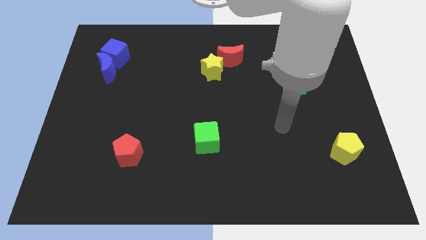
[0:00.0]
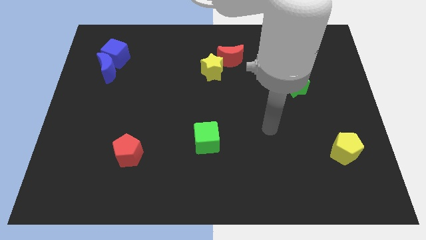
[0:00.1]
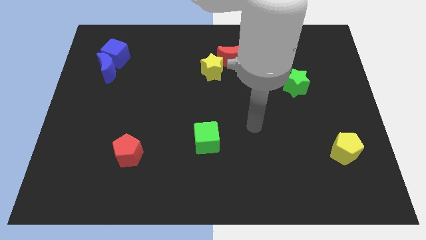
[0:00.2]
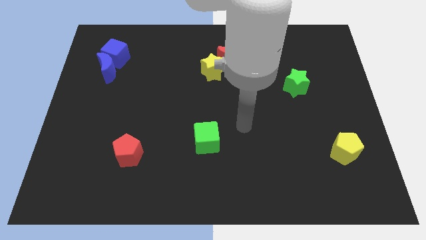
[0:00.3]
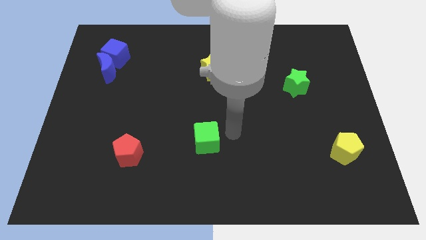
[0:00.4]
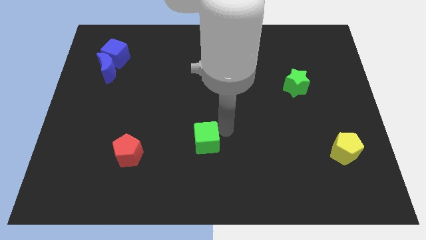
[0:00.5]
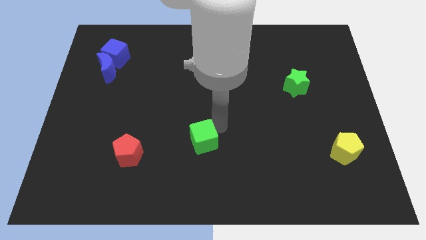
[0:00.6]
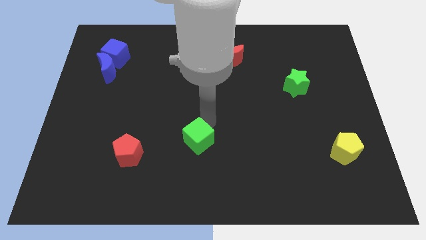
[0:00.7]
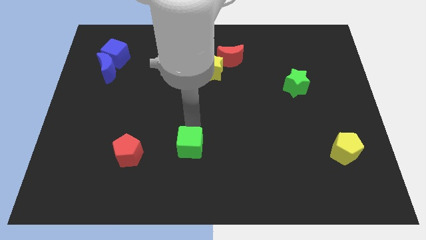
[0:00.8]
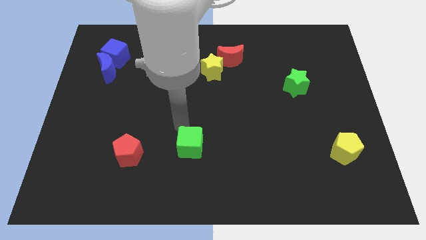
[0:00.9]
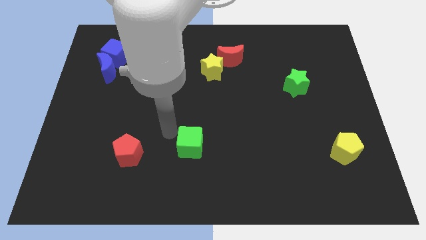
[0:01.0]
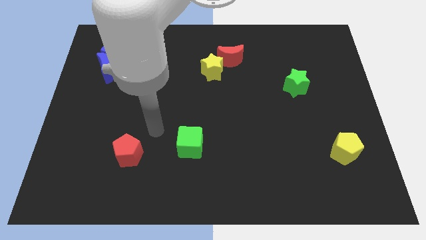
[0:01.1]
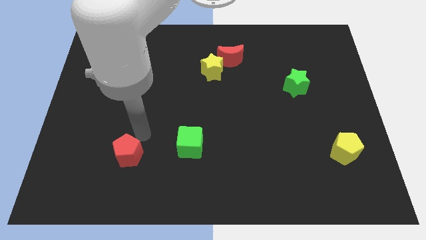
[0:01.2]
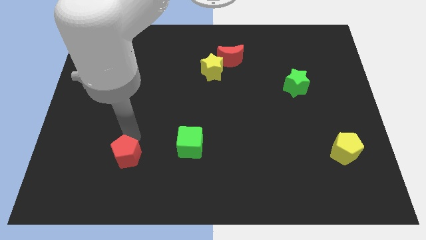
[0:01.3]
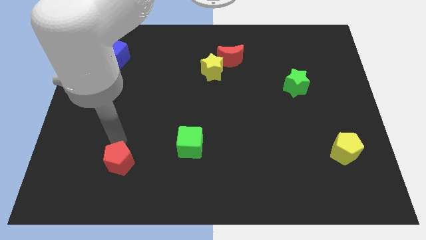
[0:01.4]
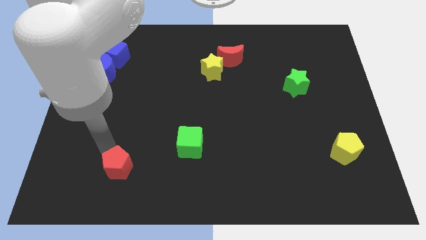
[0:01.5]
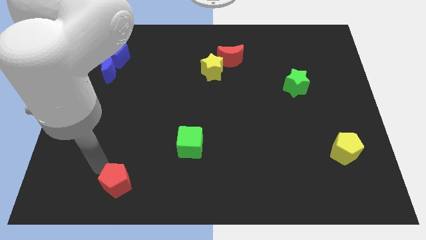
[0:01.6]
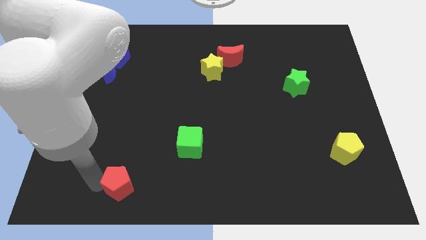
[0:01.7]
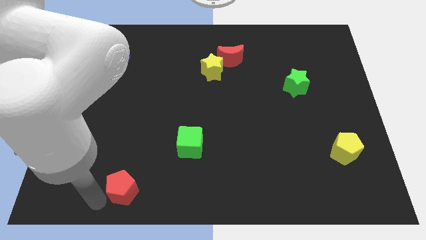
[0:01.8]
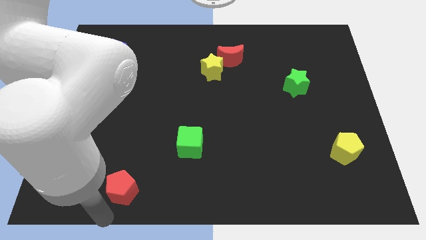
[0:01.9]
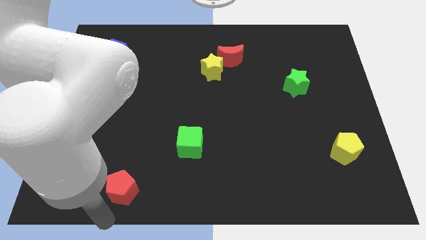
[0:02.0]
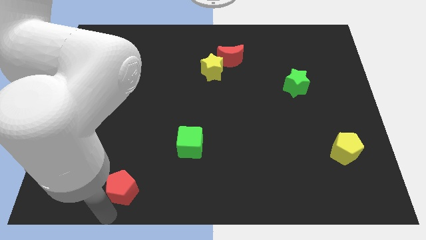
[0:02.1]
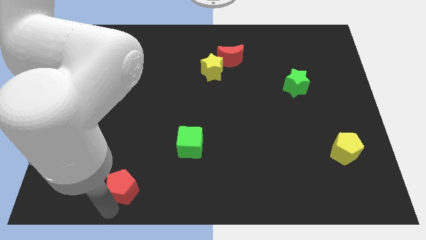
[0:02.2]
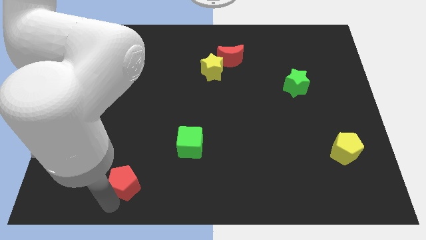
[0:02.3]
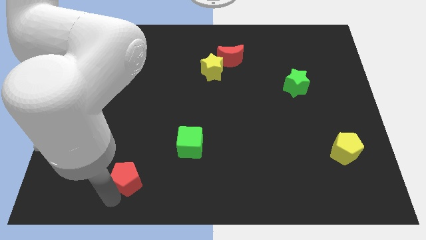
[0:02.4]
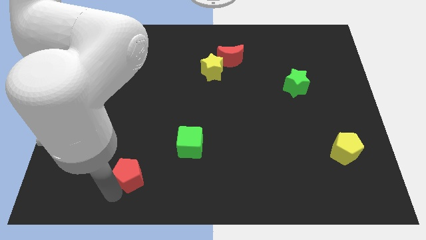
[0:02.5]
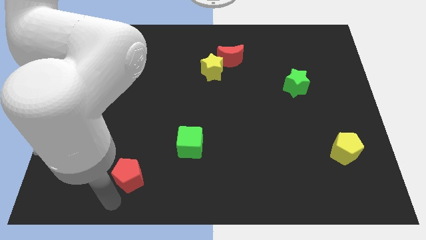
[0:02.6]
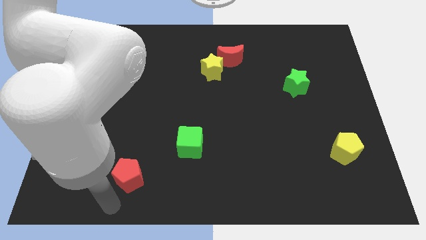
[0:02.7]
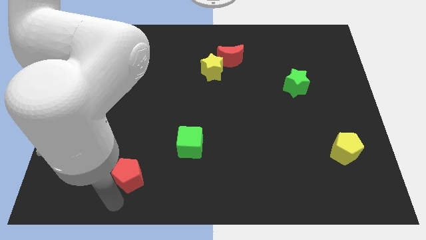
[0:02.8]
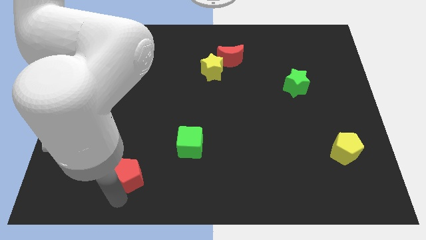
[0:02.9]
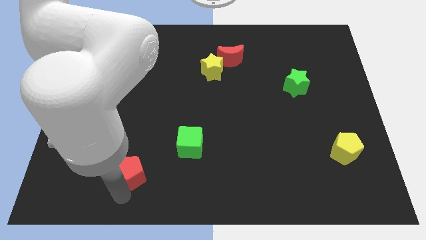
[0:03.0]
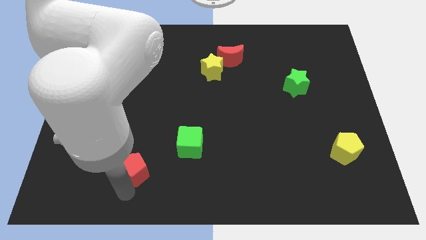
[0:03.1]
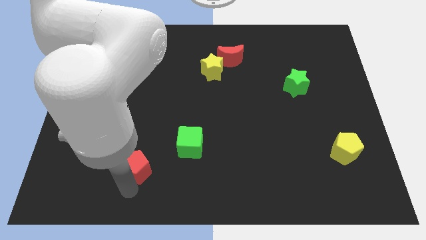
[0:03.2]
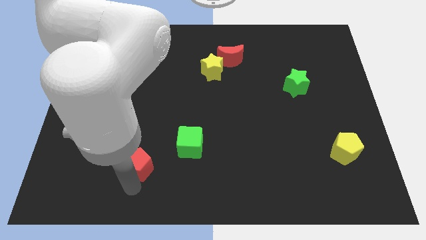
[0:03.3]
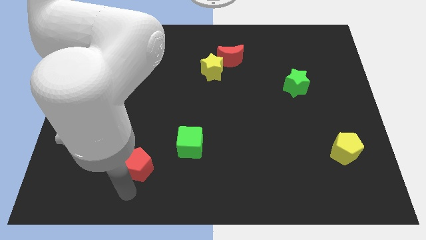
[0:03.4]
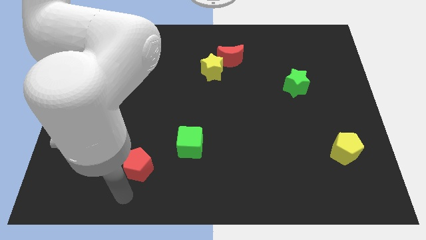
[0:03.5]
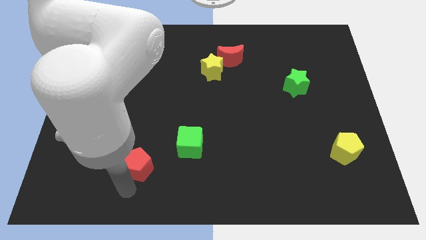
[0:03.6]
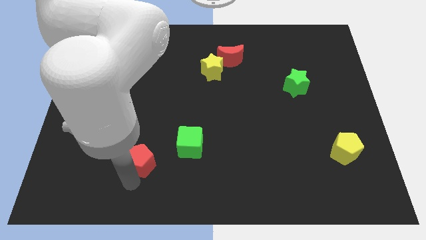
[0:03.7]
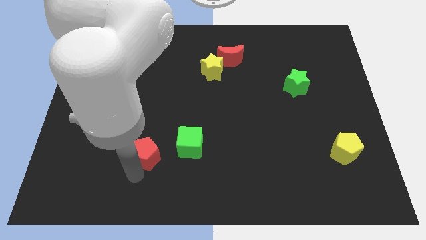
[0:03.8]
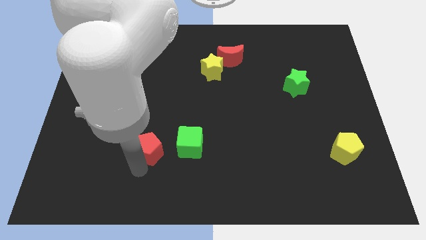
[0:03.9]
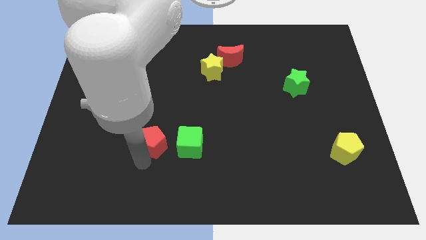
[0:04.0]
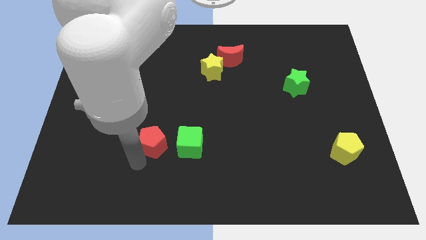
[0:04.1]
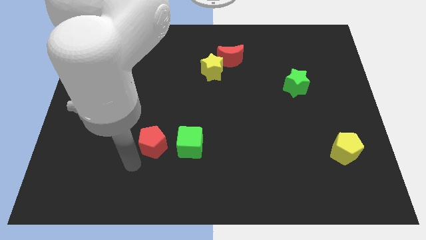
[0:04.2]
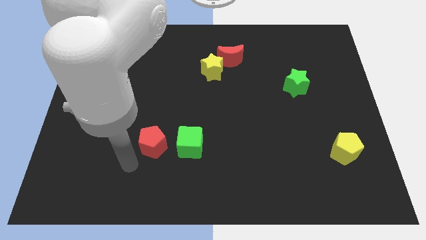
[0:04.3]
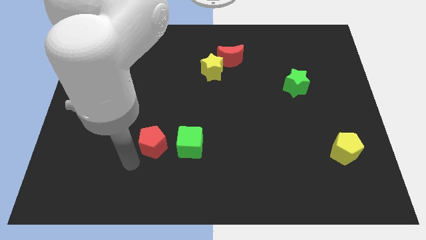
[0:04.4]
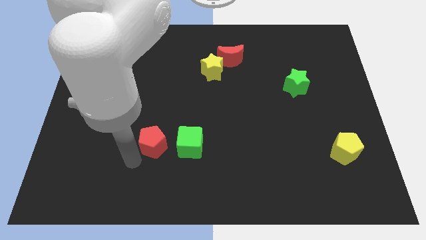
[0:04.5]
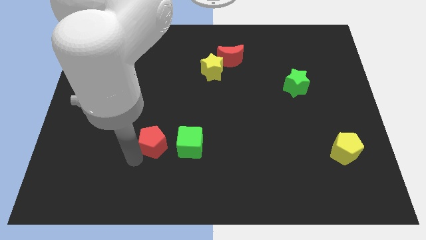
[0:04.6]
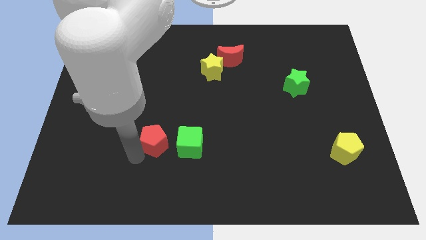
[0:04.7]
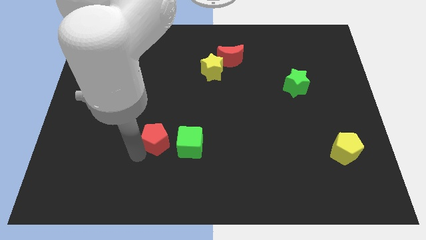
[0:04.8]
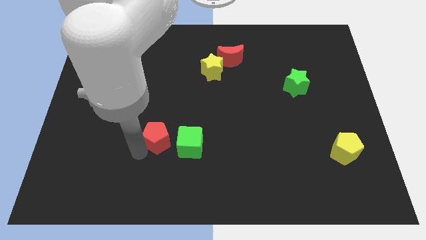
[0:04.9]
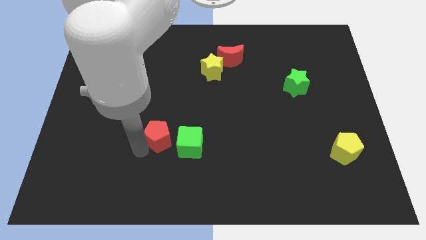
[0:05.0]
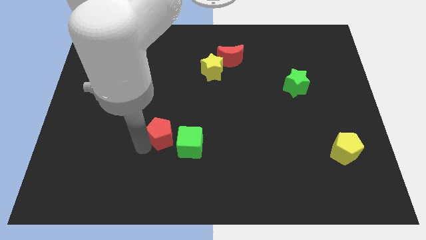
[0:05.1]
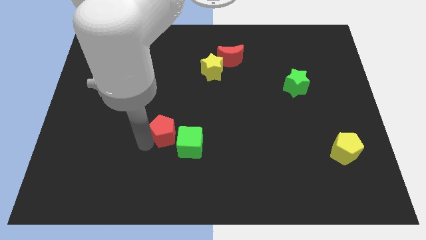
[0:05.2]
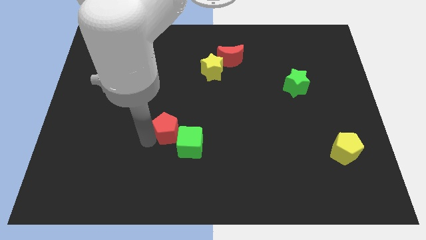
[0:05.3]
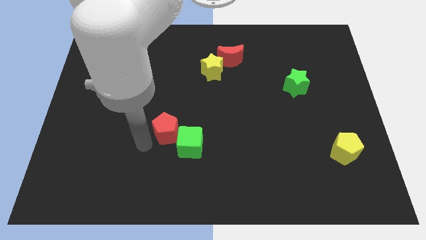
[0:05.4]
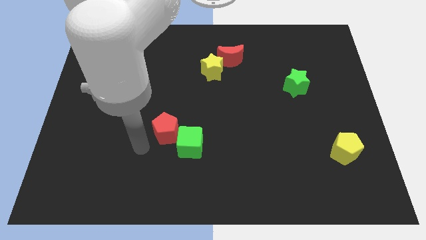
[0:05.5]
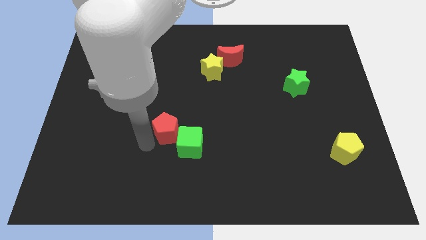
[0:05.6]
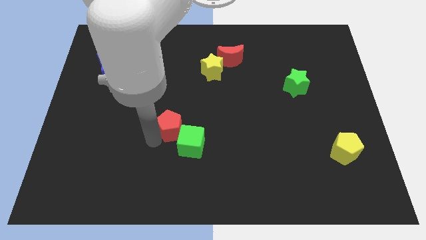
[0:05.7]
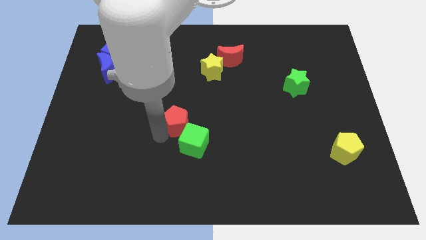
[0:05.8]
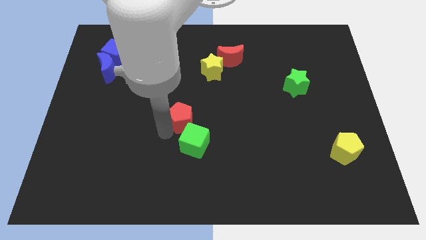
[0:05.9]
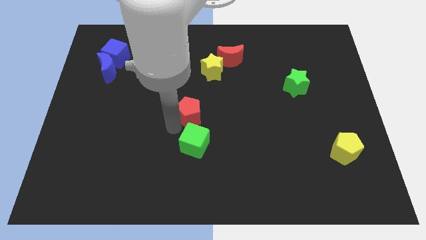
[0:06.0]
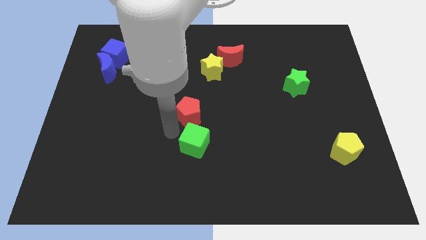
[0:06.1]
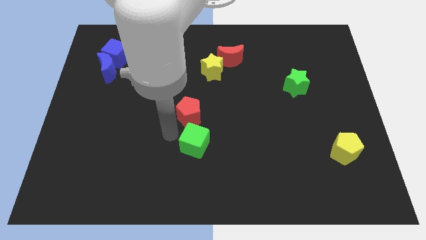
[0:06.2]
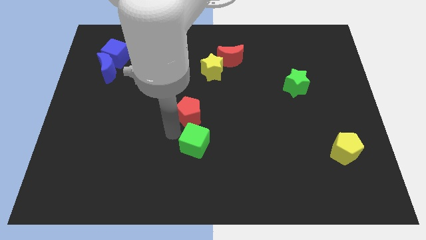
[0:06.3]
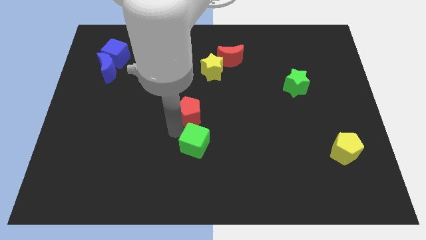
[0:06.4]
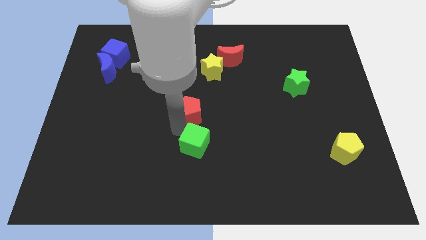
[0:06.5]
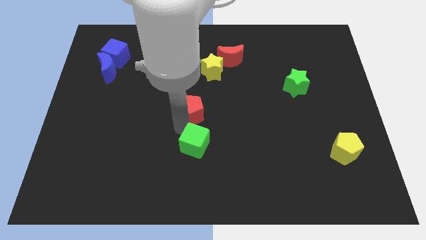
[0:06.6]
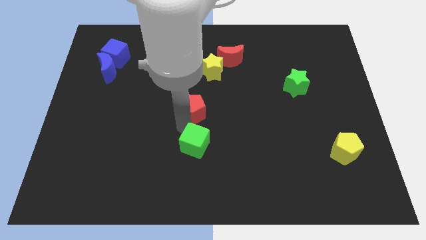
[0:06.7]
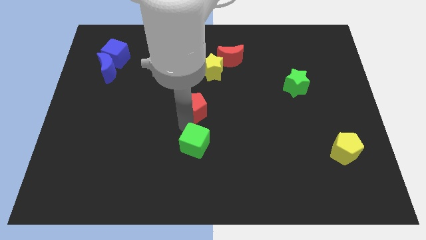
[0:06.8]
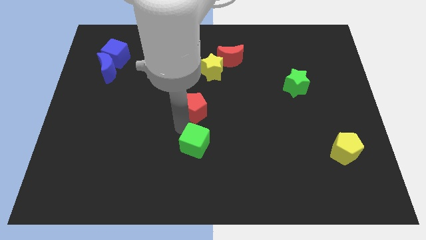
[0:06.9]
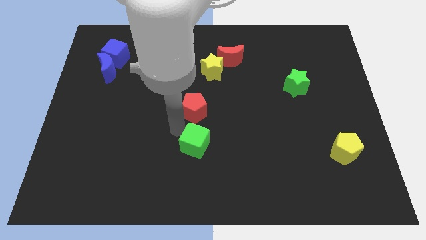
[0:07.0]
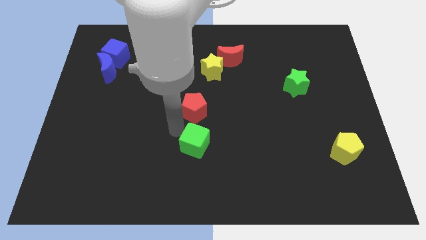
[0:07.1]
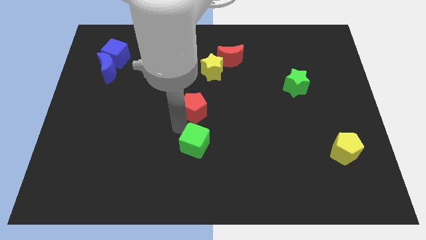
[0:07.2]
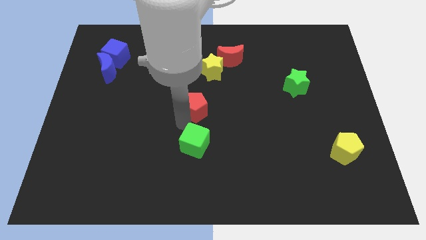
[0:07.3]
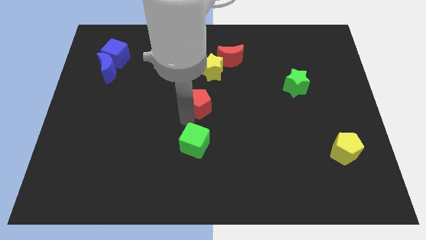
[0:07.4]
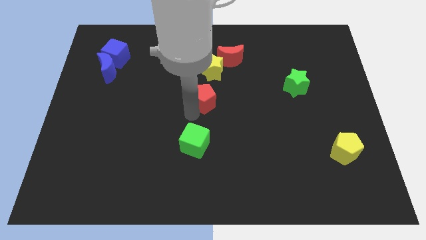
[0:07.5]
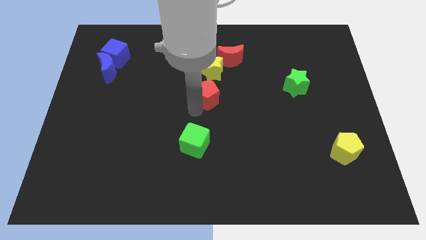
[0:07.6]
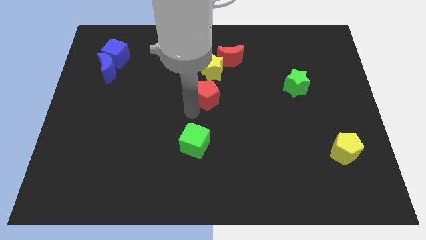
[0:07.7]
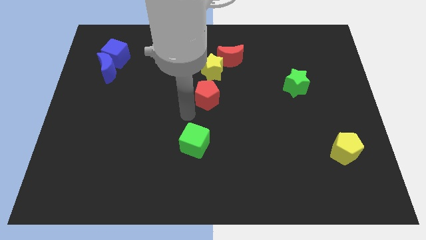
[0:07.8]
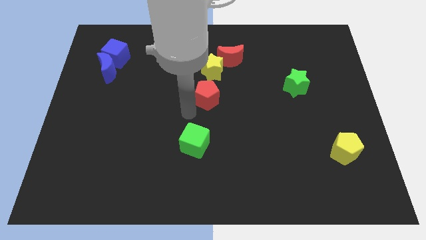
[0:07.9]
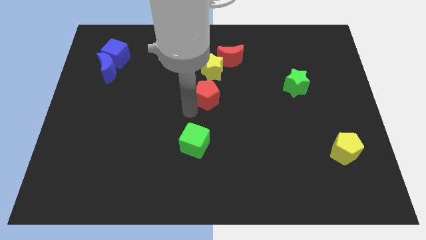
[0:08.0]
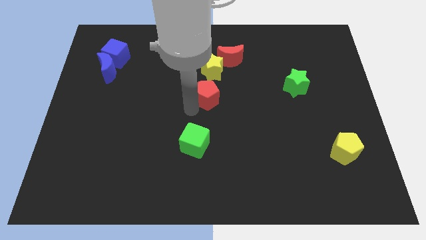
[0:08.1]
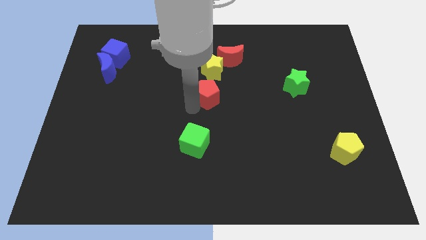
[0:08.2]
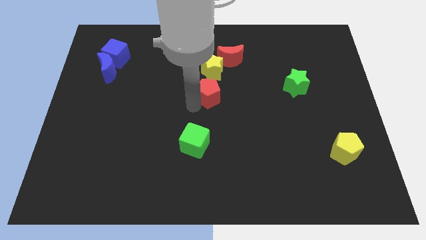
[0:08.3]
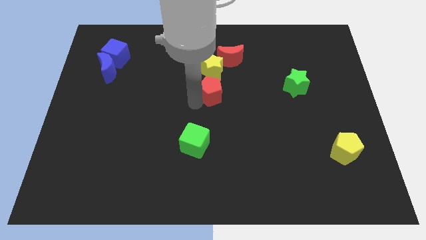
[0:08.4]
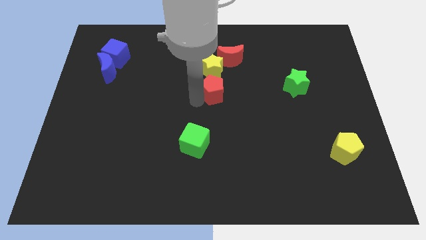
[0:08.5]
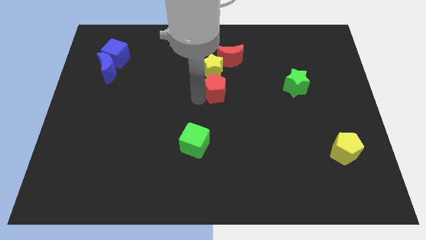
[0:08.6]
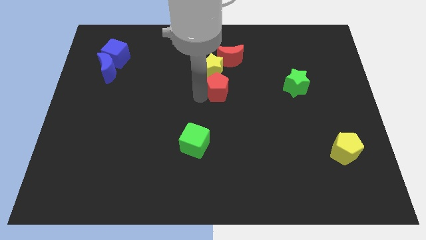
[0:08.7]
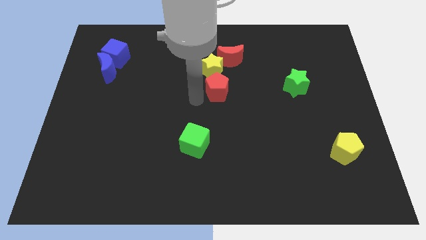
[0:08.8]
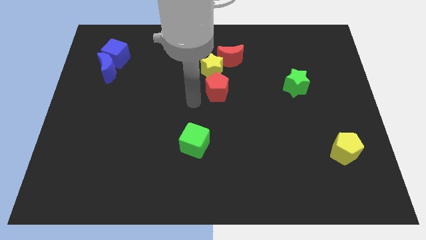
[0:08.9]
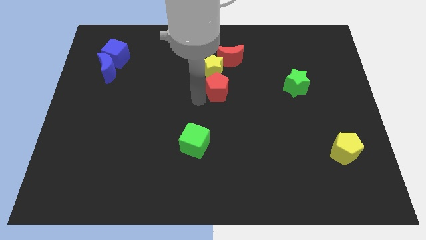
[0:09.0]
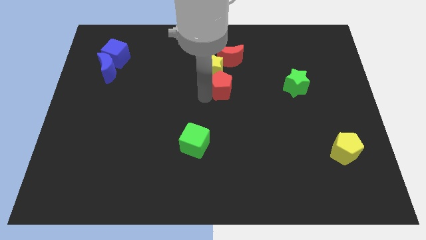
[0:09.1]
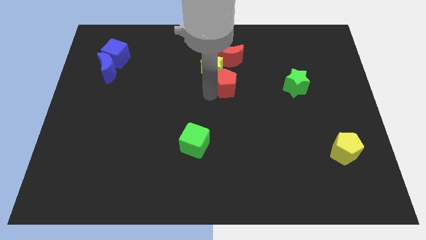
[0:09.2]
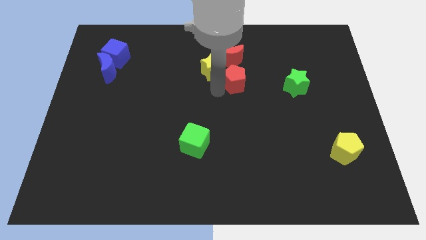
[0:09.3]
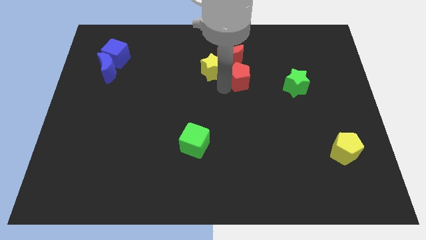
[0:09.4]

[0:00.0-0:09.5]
put the red pentagon to the bottom right side of the red moon
